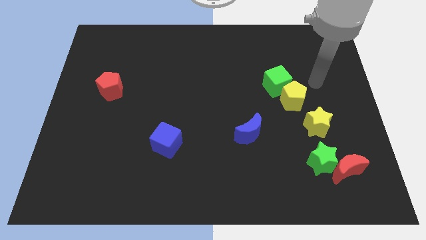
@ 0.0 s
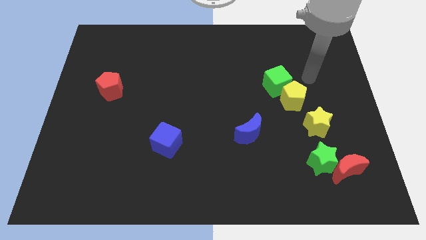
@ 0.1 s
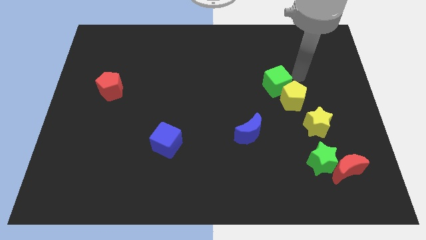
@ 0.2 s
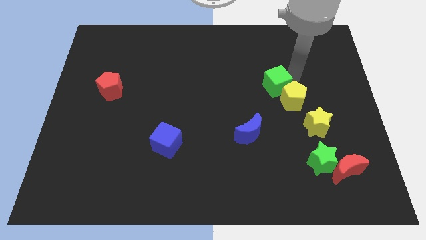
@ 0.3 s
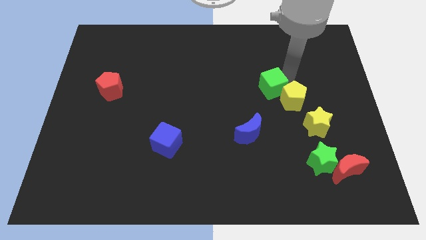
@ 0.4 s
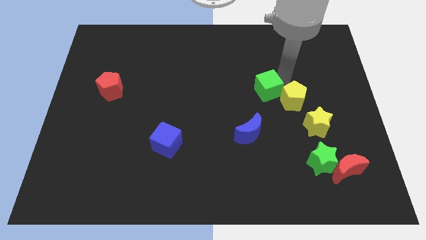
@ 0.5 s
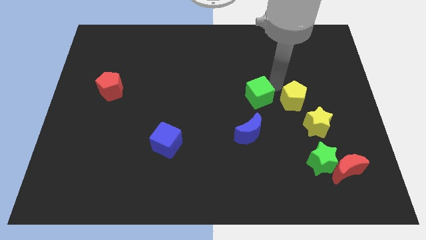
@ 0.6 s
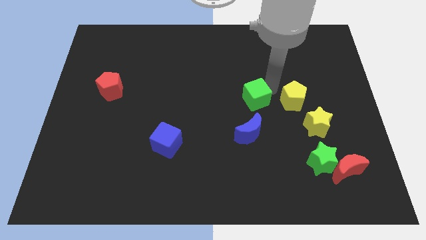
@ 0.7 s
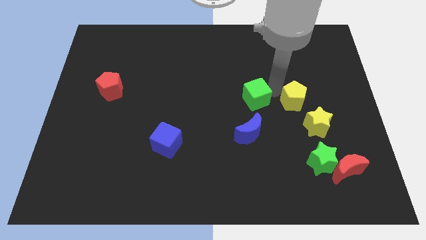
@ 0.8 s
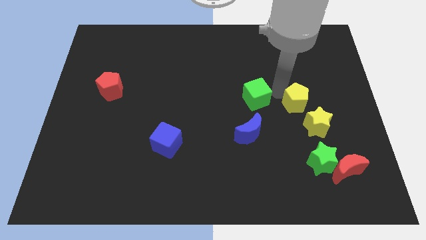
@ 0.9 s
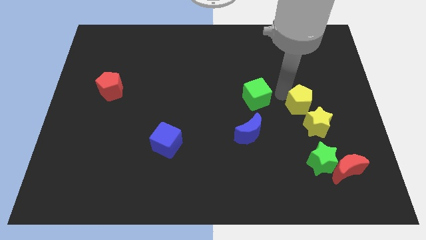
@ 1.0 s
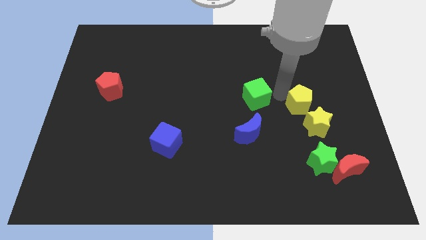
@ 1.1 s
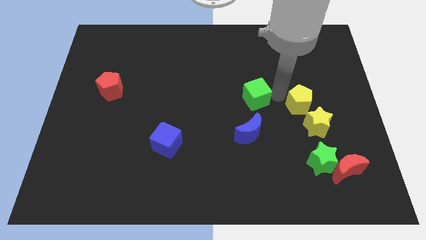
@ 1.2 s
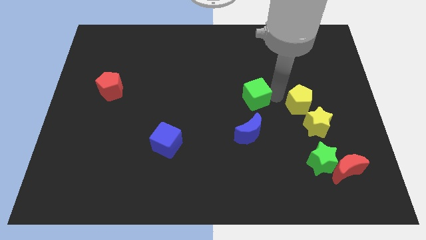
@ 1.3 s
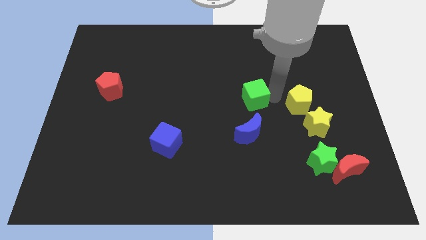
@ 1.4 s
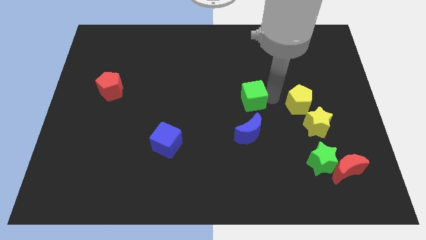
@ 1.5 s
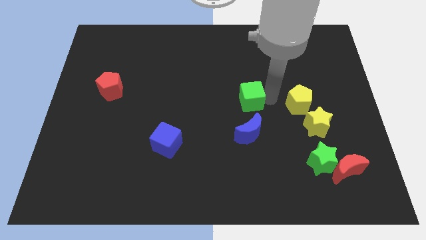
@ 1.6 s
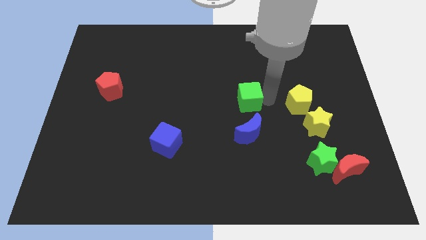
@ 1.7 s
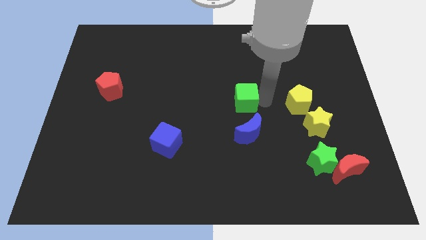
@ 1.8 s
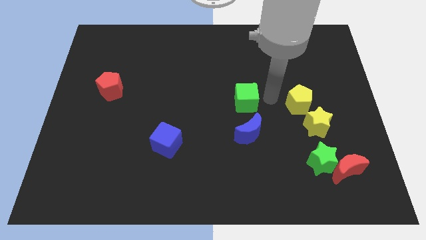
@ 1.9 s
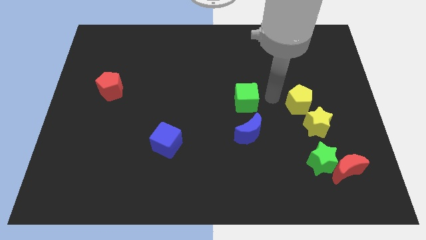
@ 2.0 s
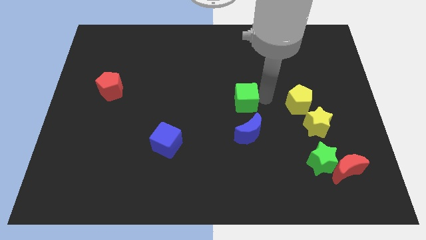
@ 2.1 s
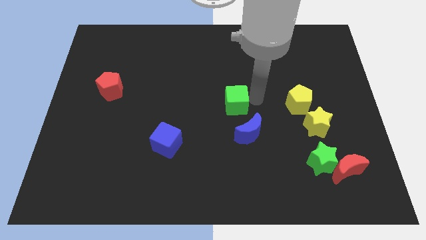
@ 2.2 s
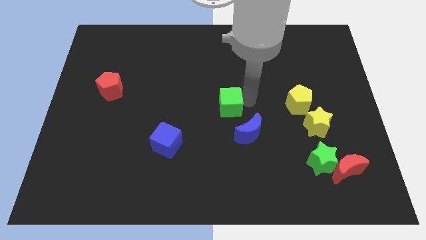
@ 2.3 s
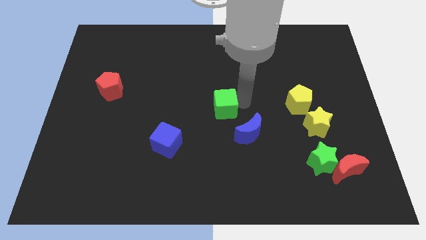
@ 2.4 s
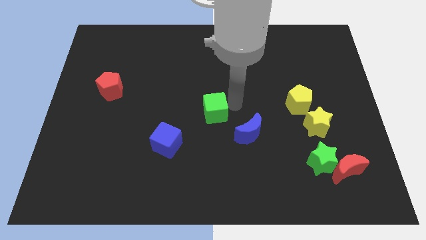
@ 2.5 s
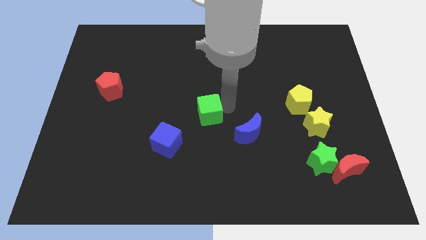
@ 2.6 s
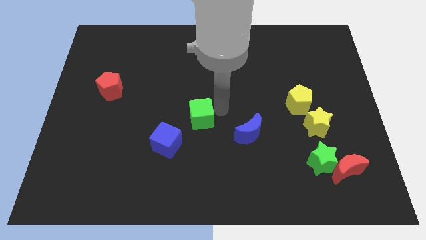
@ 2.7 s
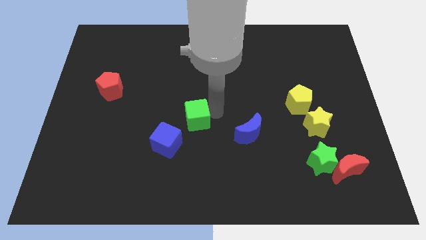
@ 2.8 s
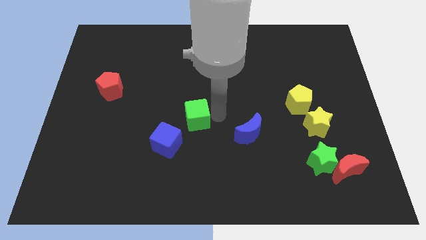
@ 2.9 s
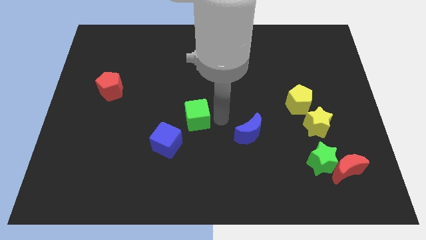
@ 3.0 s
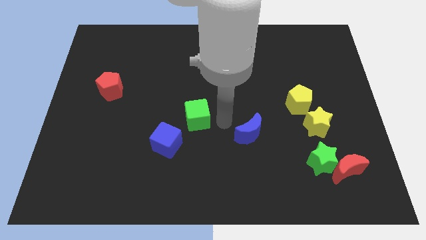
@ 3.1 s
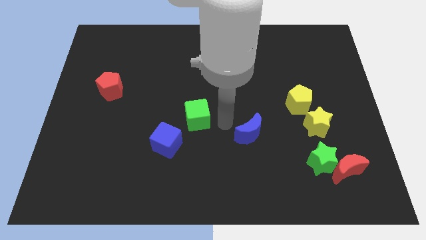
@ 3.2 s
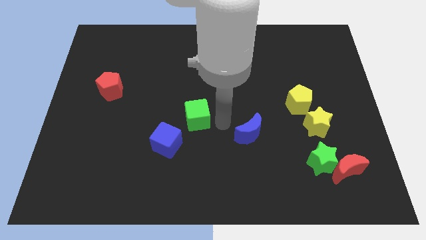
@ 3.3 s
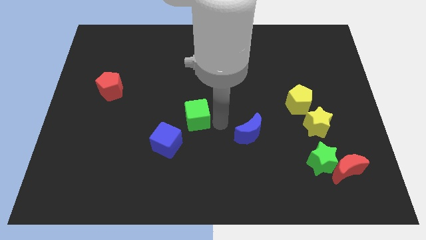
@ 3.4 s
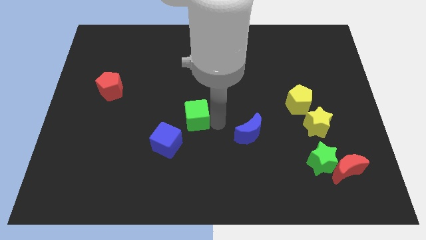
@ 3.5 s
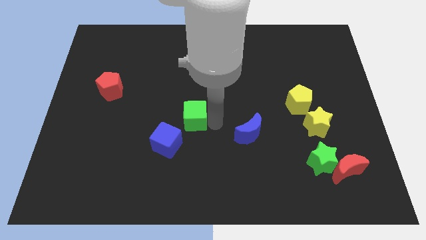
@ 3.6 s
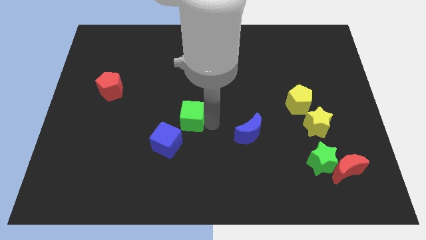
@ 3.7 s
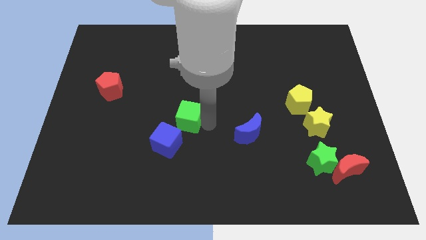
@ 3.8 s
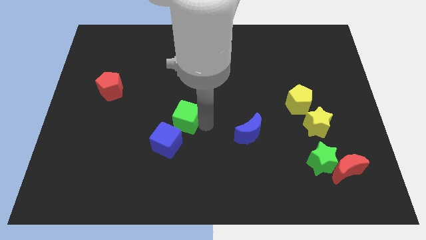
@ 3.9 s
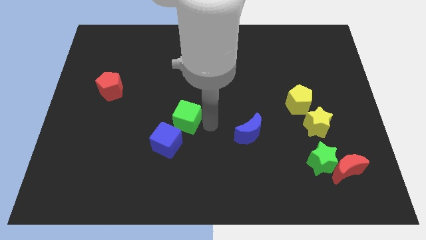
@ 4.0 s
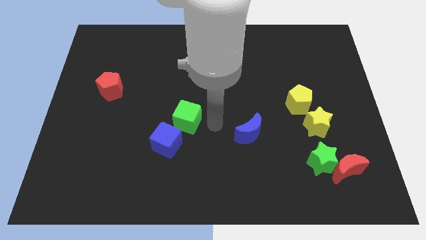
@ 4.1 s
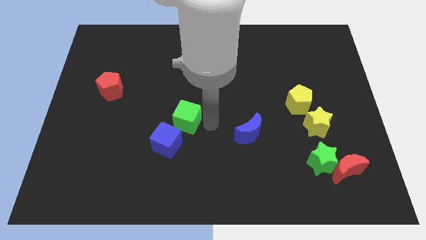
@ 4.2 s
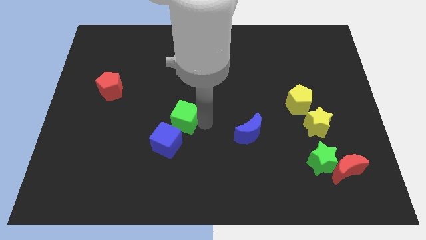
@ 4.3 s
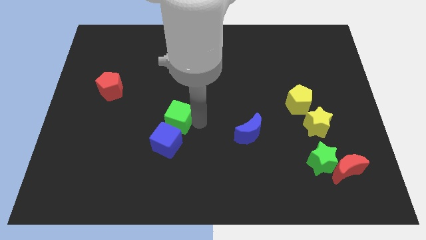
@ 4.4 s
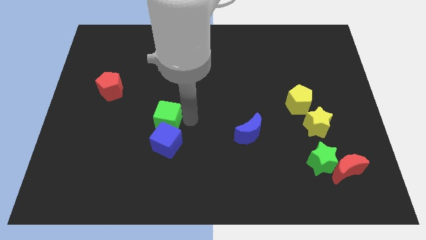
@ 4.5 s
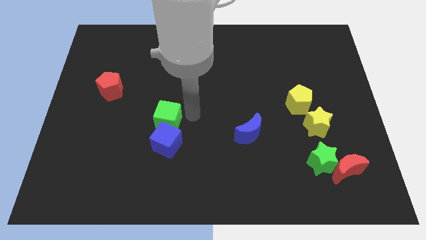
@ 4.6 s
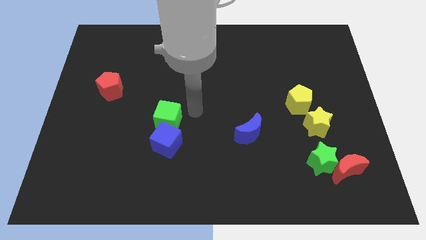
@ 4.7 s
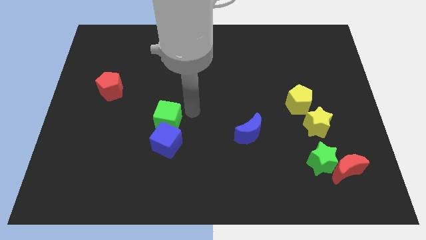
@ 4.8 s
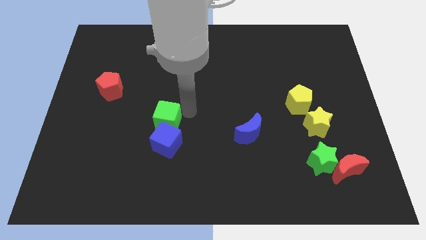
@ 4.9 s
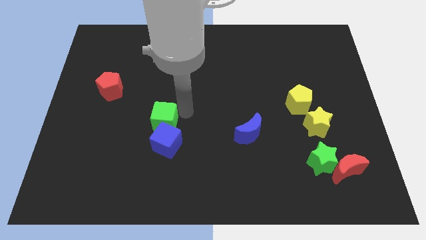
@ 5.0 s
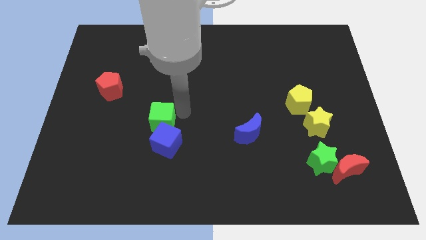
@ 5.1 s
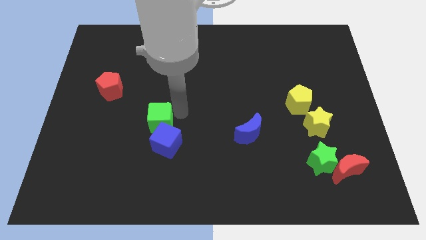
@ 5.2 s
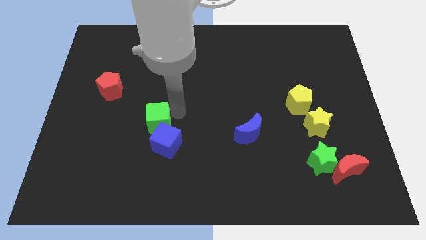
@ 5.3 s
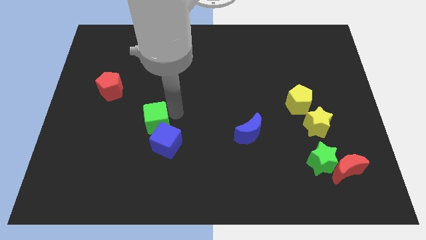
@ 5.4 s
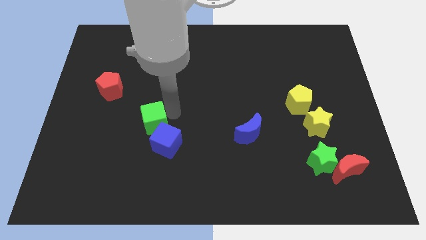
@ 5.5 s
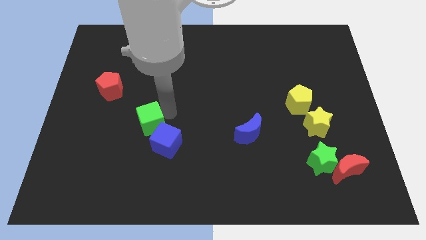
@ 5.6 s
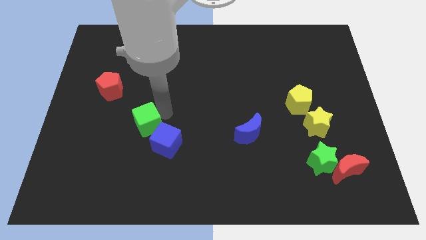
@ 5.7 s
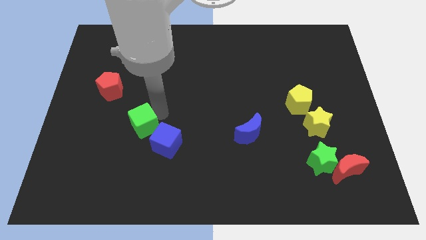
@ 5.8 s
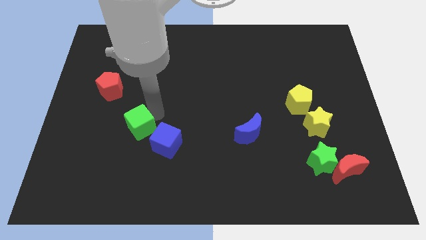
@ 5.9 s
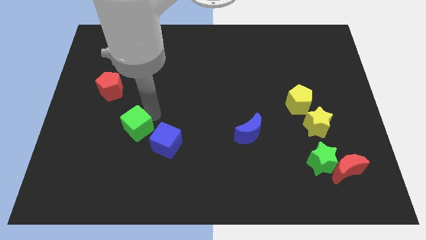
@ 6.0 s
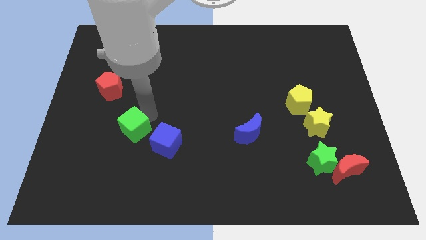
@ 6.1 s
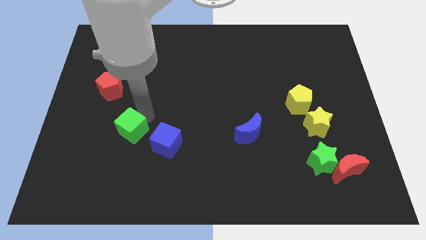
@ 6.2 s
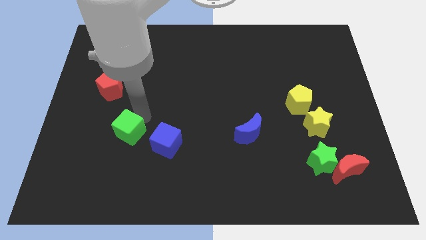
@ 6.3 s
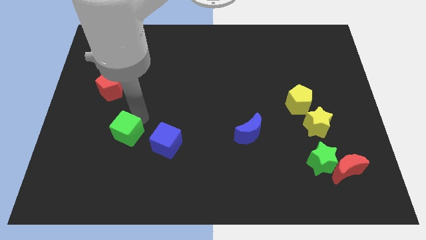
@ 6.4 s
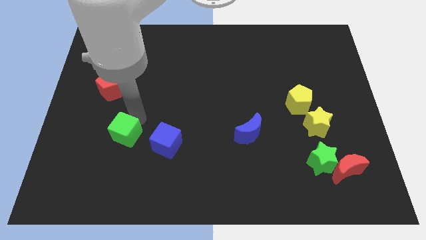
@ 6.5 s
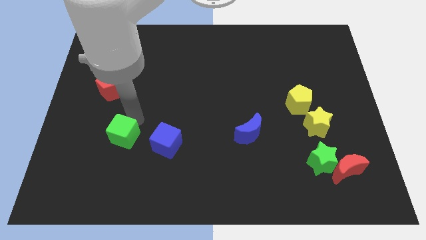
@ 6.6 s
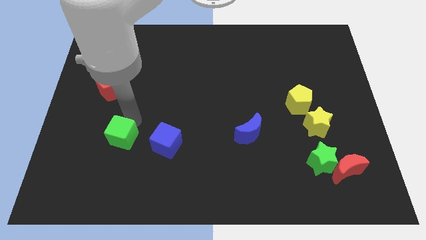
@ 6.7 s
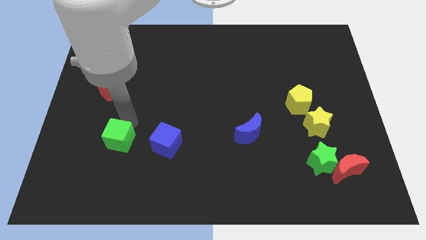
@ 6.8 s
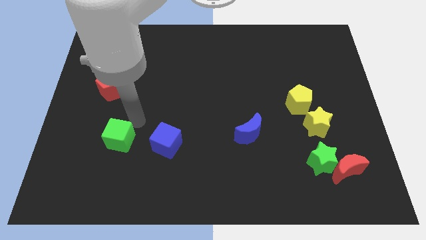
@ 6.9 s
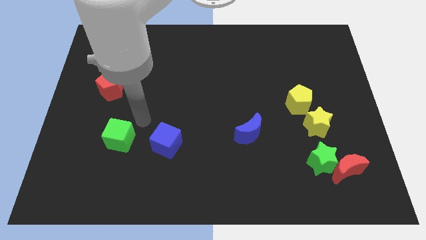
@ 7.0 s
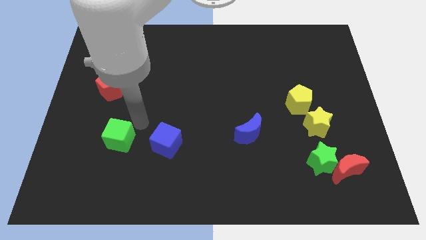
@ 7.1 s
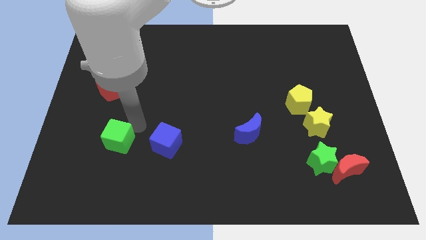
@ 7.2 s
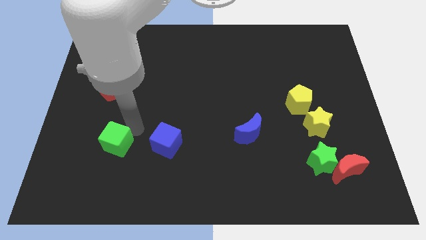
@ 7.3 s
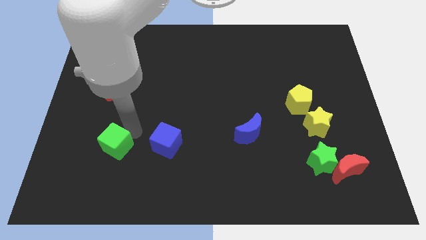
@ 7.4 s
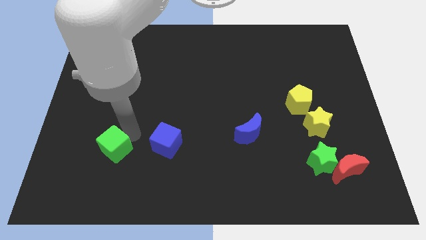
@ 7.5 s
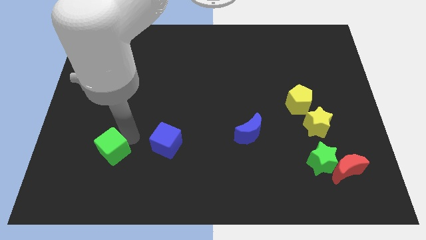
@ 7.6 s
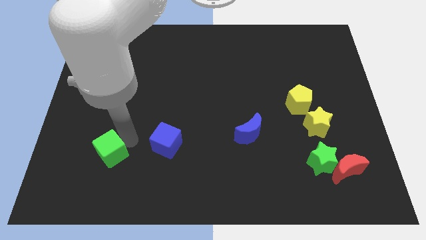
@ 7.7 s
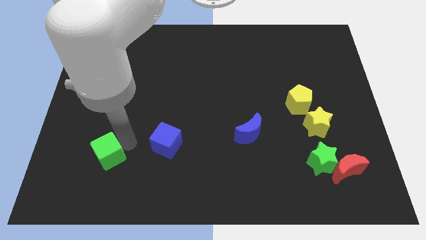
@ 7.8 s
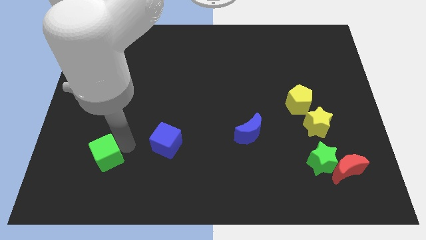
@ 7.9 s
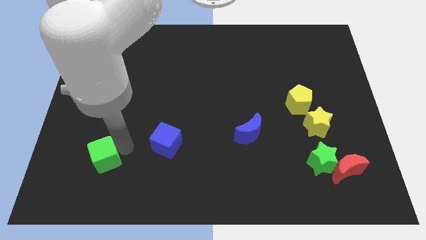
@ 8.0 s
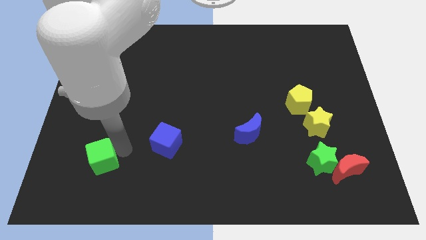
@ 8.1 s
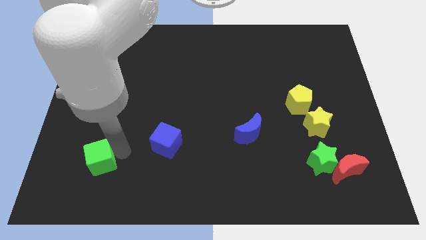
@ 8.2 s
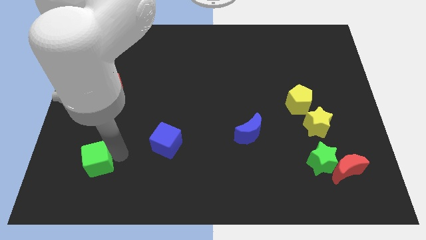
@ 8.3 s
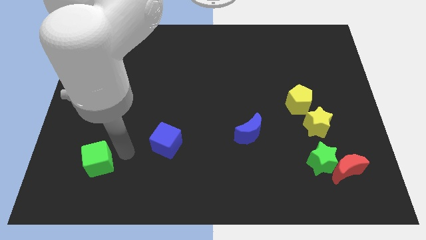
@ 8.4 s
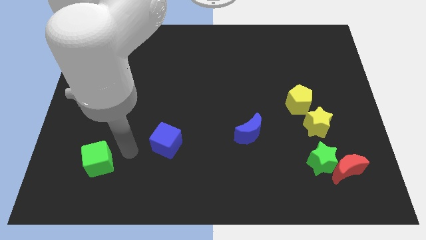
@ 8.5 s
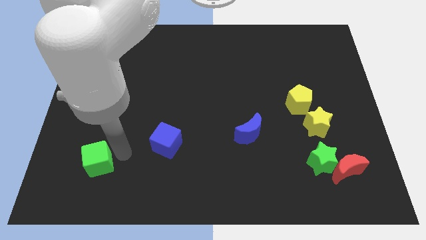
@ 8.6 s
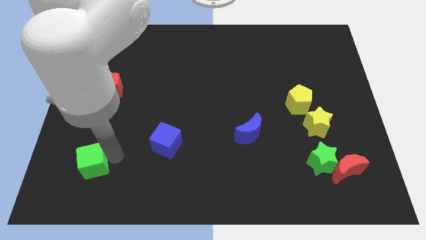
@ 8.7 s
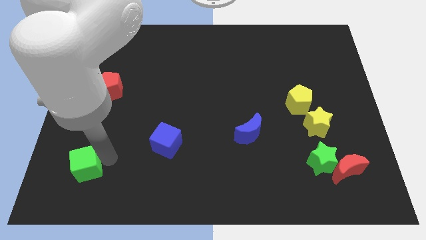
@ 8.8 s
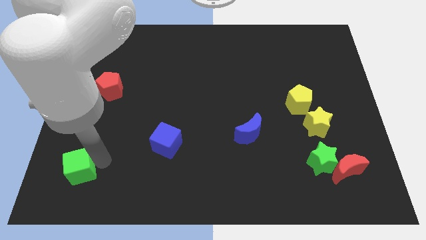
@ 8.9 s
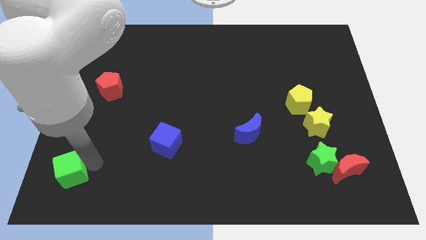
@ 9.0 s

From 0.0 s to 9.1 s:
slide the green cube to the bottom left
